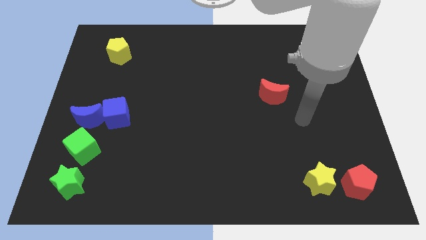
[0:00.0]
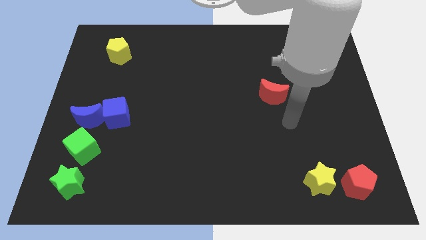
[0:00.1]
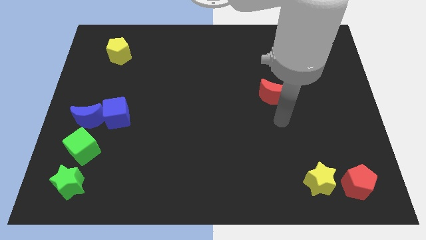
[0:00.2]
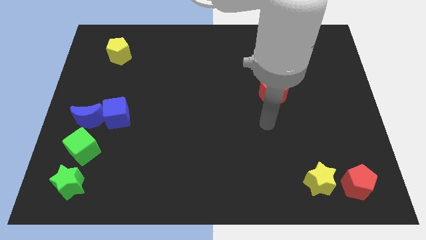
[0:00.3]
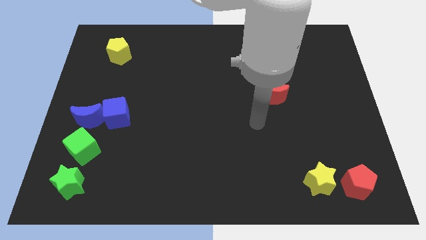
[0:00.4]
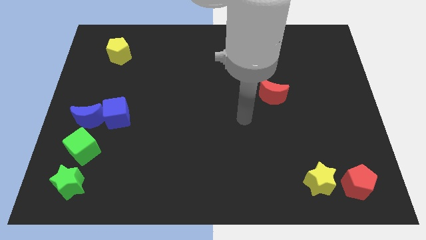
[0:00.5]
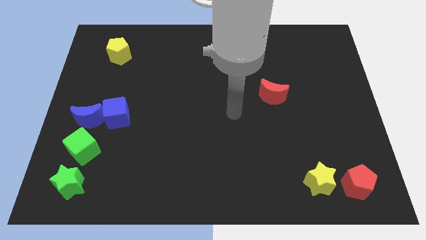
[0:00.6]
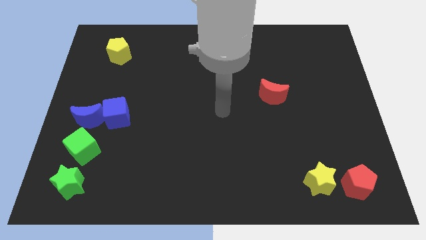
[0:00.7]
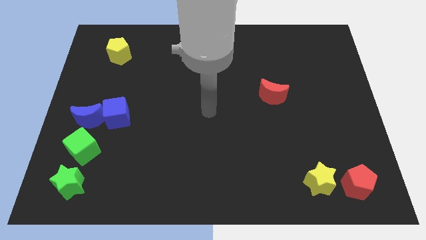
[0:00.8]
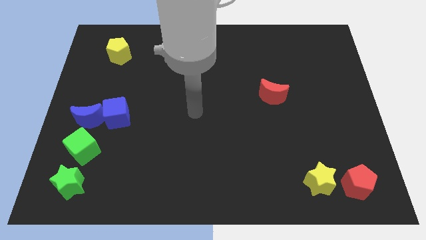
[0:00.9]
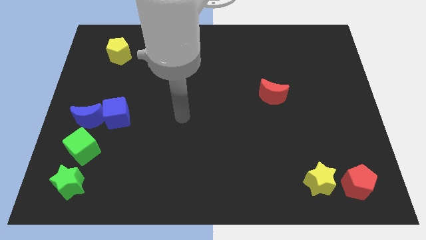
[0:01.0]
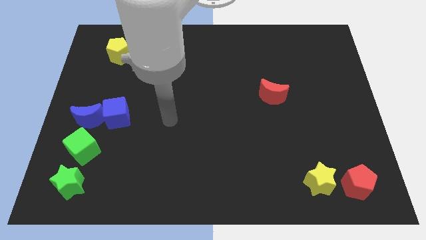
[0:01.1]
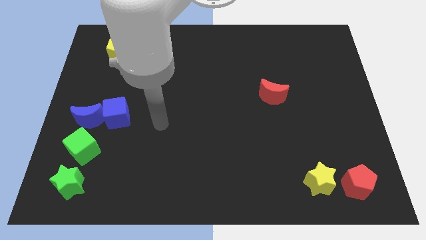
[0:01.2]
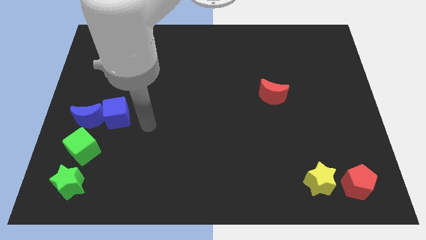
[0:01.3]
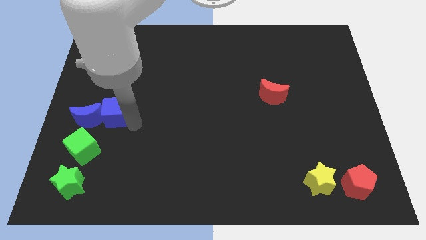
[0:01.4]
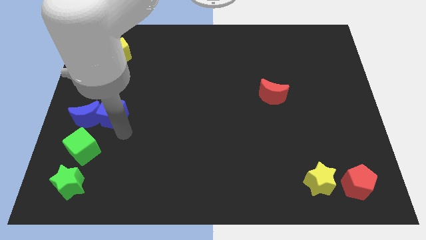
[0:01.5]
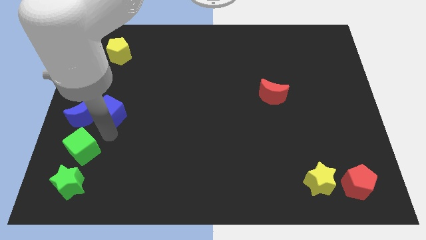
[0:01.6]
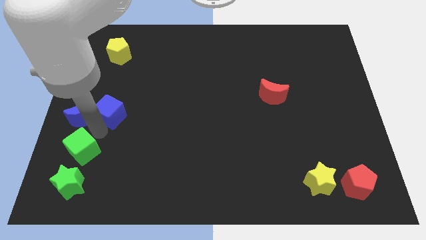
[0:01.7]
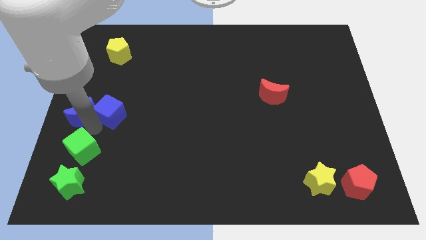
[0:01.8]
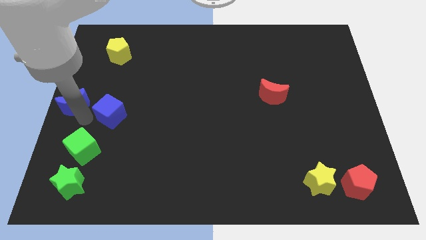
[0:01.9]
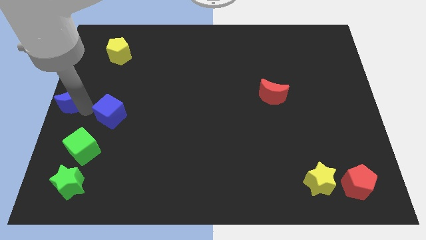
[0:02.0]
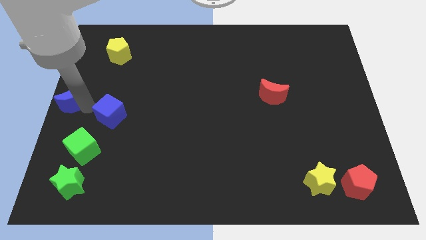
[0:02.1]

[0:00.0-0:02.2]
pull the blue cube apart from the blue moon

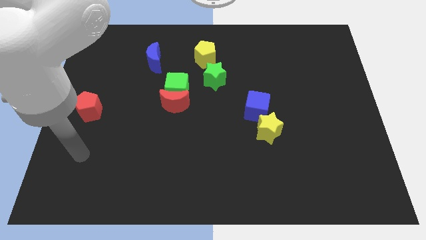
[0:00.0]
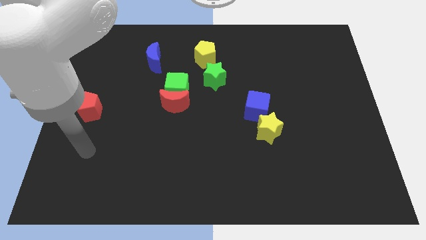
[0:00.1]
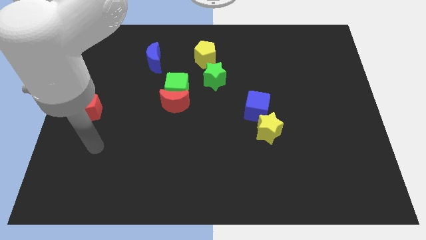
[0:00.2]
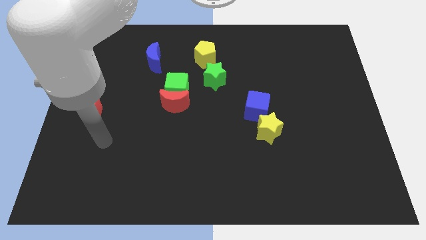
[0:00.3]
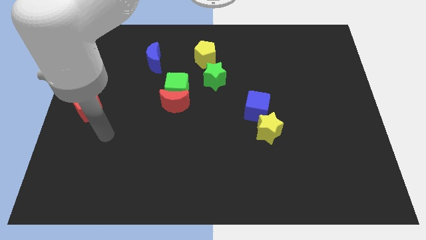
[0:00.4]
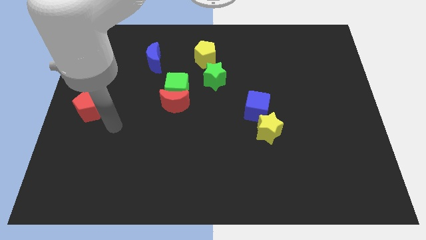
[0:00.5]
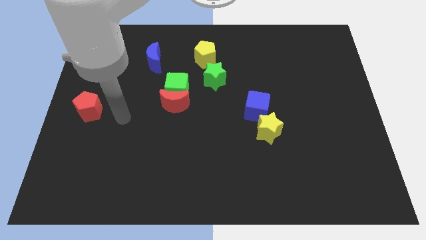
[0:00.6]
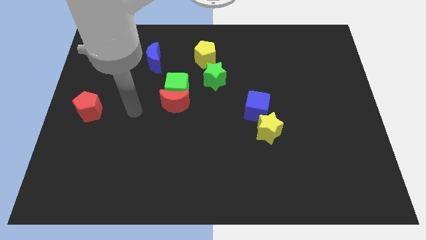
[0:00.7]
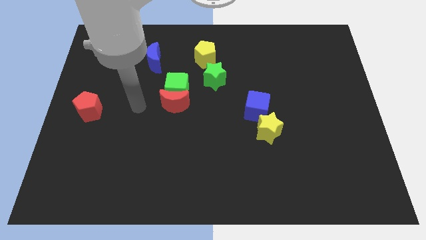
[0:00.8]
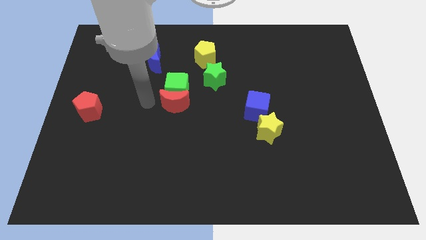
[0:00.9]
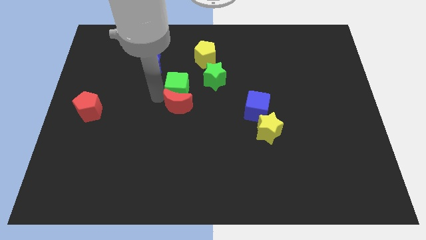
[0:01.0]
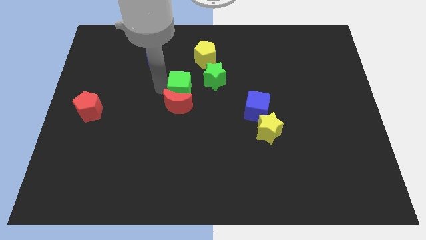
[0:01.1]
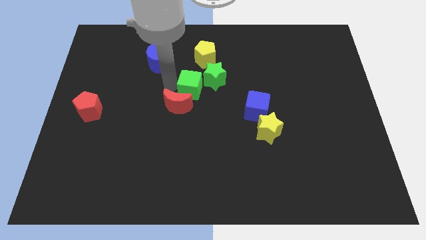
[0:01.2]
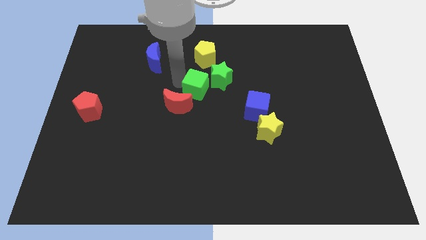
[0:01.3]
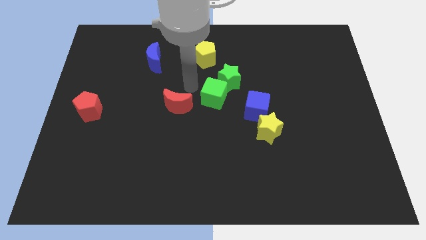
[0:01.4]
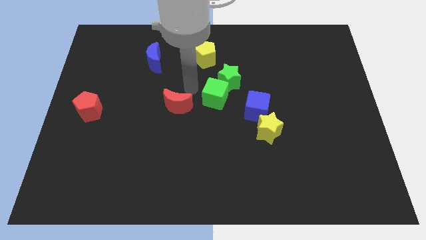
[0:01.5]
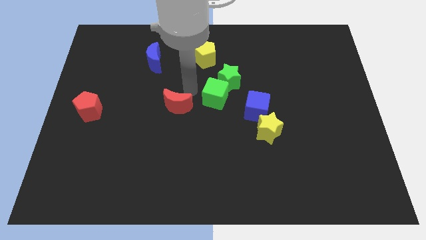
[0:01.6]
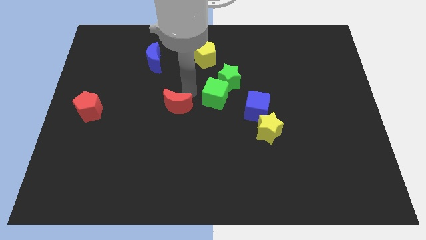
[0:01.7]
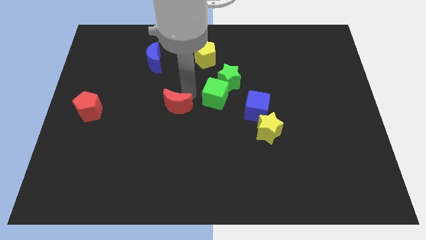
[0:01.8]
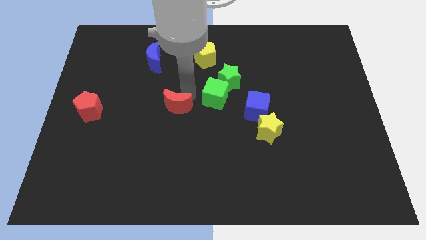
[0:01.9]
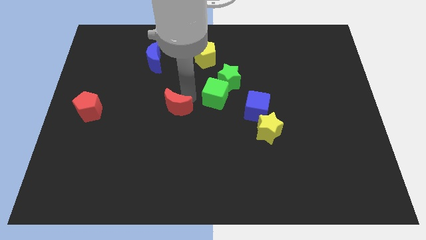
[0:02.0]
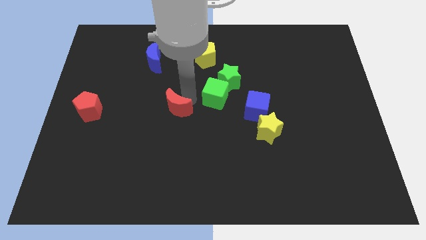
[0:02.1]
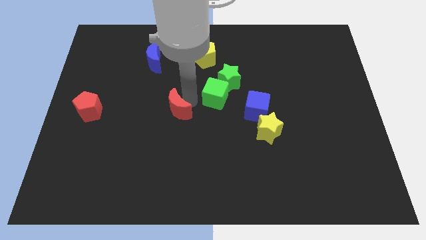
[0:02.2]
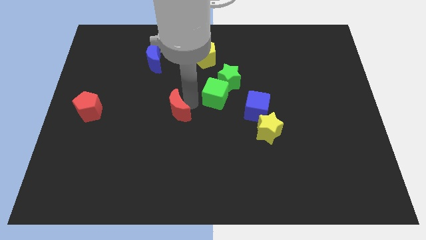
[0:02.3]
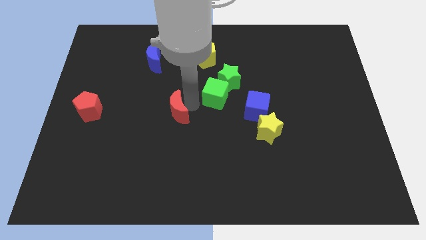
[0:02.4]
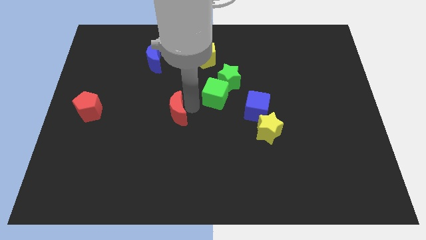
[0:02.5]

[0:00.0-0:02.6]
separate the red moon from the green cube

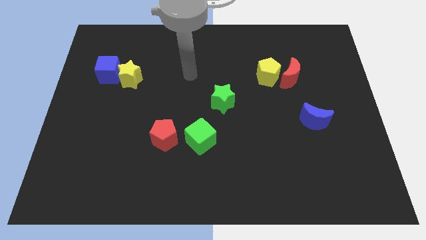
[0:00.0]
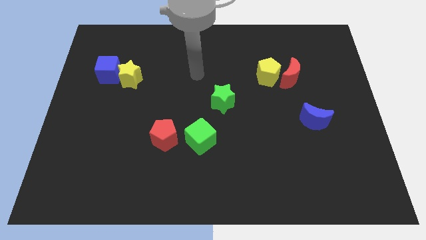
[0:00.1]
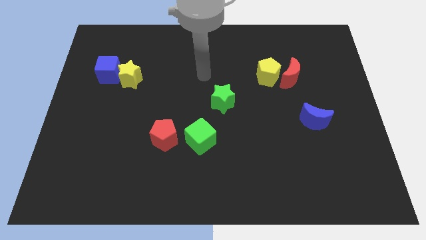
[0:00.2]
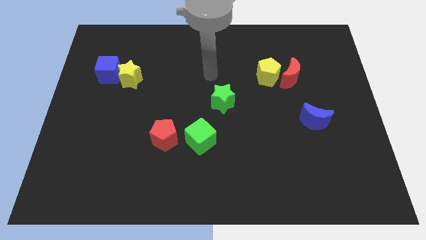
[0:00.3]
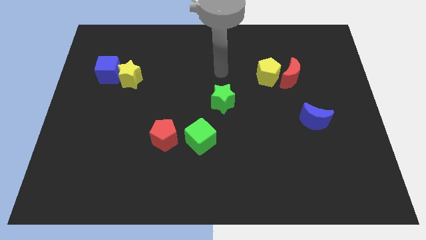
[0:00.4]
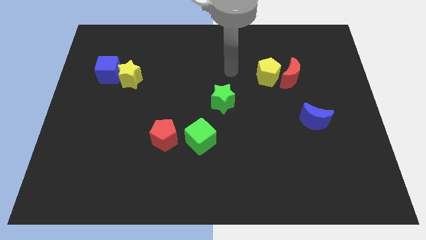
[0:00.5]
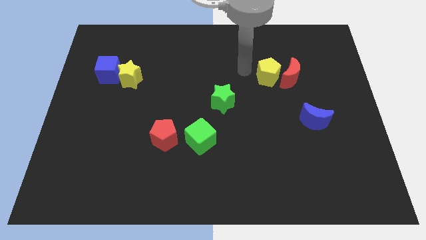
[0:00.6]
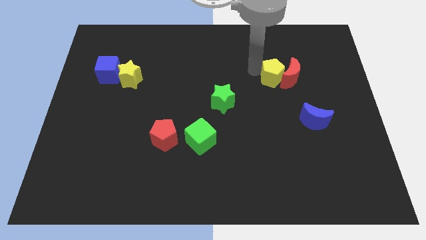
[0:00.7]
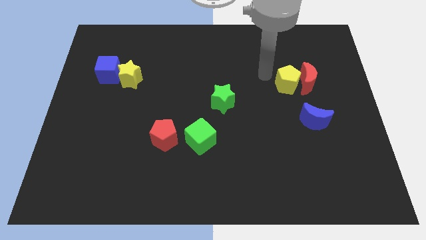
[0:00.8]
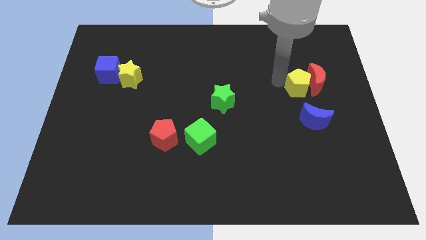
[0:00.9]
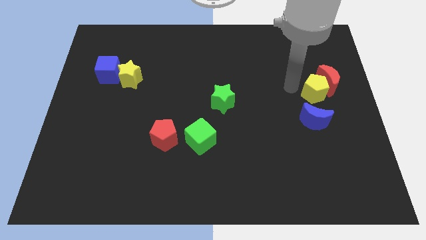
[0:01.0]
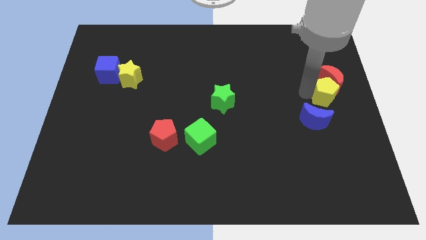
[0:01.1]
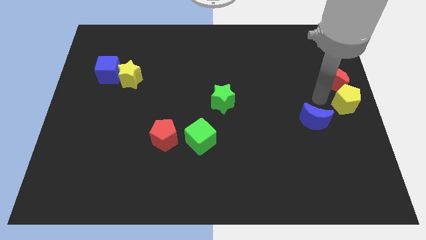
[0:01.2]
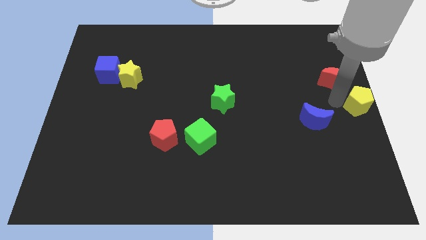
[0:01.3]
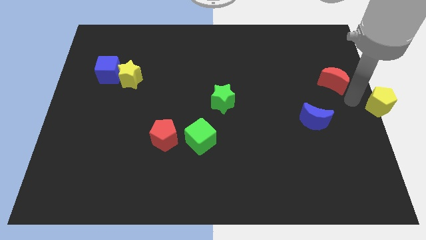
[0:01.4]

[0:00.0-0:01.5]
pull the red moon apart from the yellow pentagon

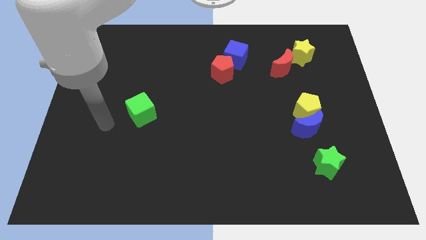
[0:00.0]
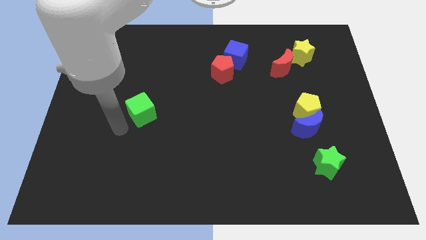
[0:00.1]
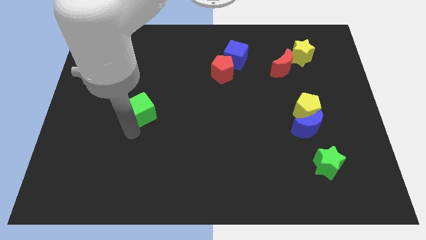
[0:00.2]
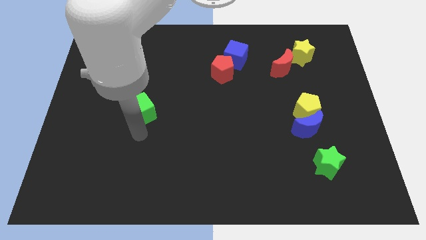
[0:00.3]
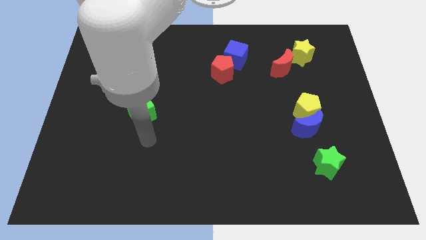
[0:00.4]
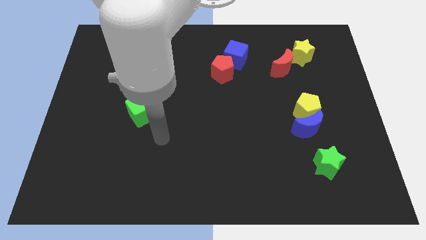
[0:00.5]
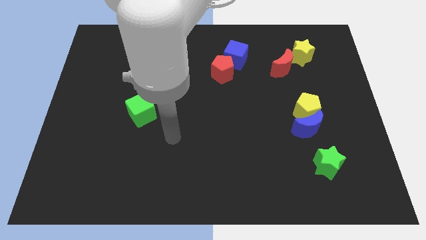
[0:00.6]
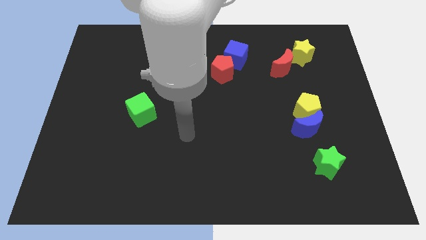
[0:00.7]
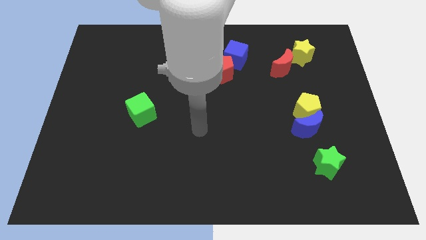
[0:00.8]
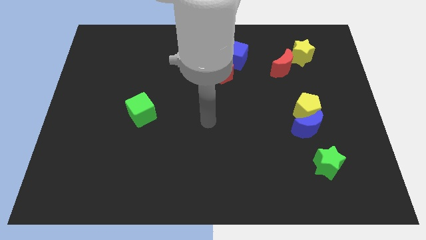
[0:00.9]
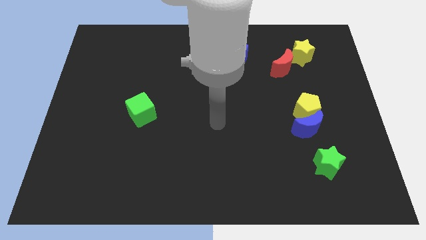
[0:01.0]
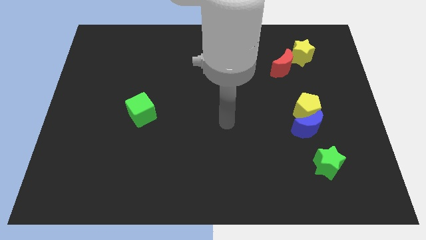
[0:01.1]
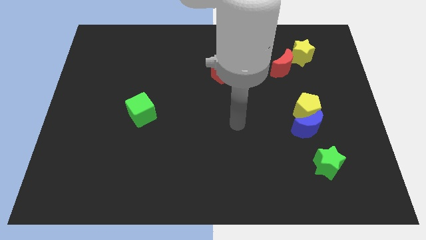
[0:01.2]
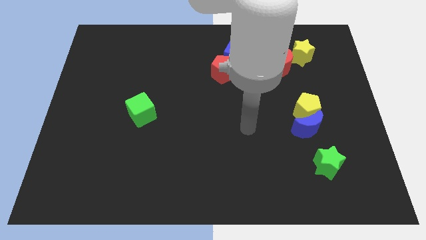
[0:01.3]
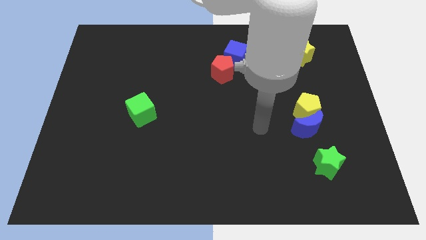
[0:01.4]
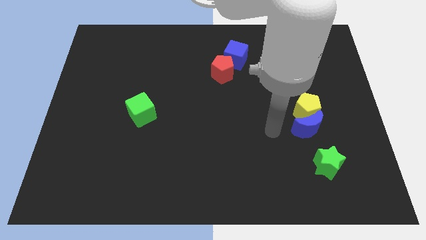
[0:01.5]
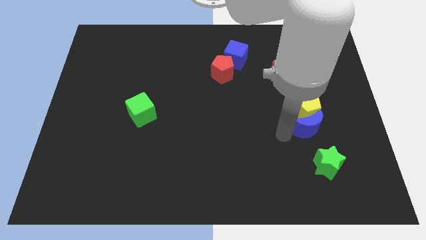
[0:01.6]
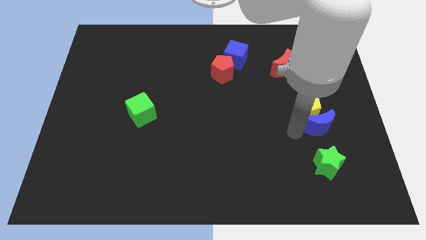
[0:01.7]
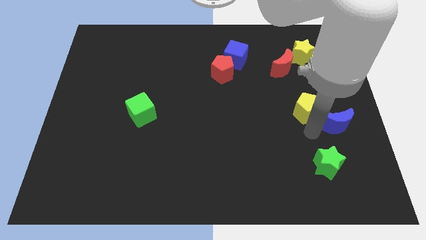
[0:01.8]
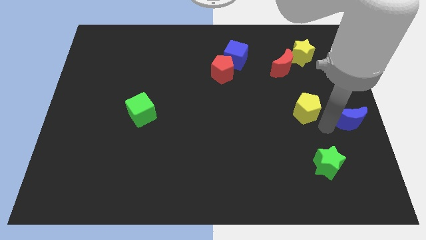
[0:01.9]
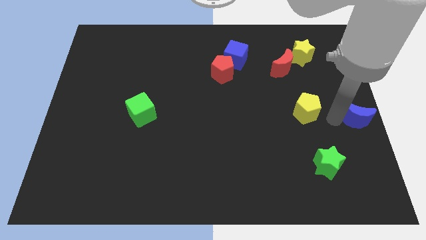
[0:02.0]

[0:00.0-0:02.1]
pull the yellow pentagon apart from the blue moon

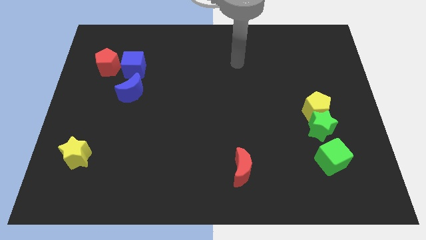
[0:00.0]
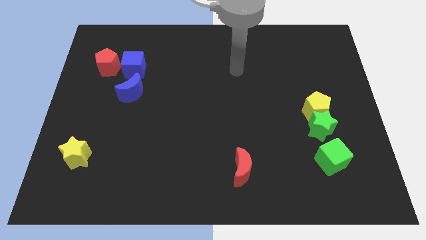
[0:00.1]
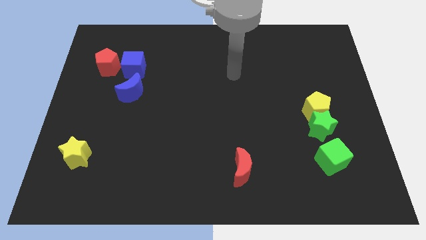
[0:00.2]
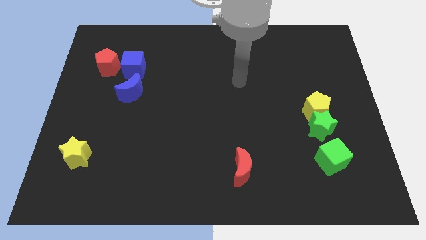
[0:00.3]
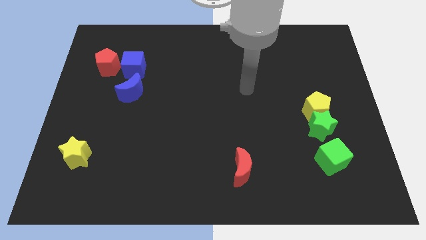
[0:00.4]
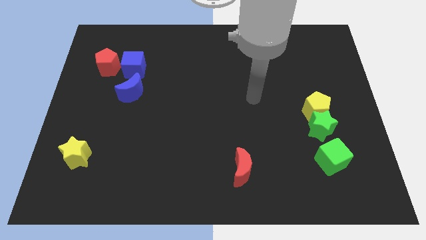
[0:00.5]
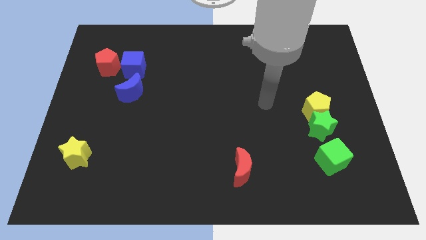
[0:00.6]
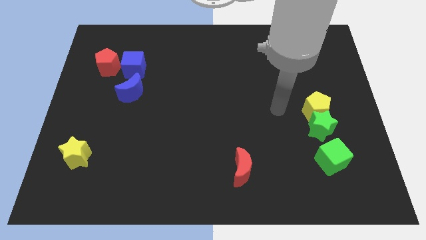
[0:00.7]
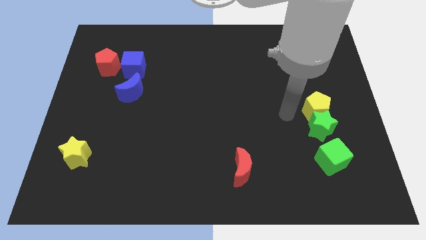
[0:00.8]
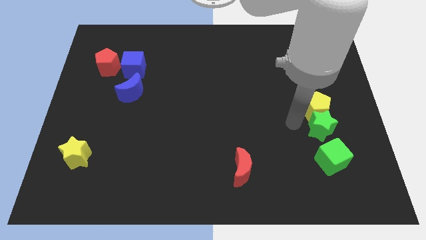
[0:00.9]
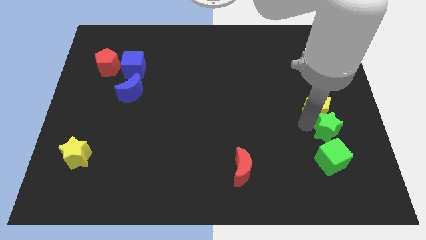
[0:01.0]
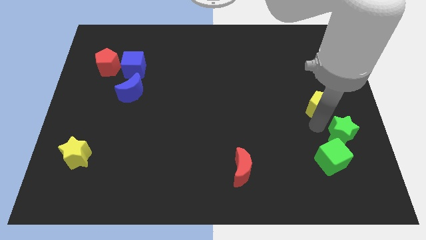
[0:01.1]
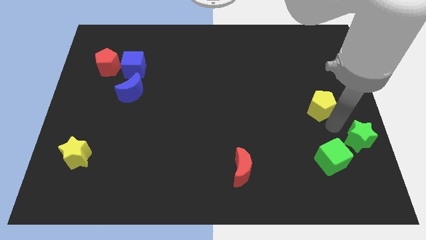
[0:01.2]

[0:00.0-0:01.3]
pull the yellow pentagon apart from the green star
